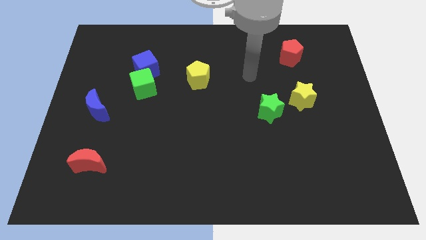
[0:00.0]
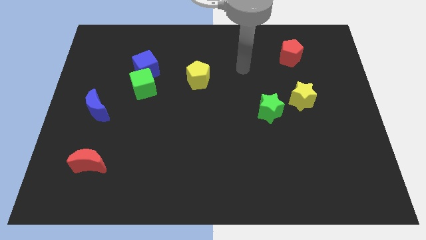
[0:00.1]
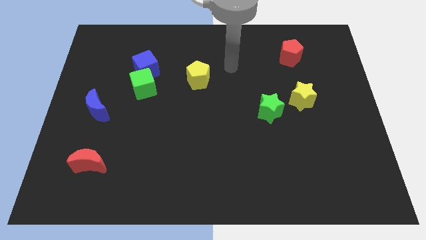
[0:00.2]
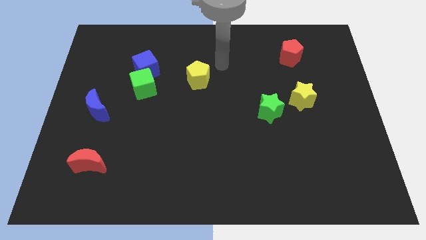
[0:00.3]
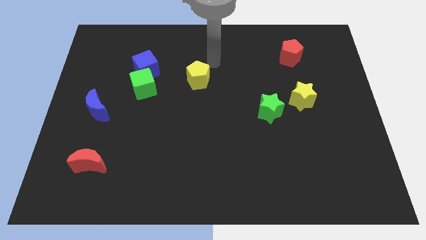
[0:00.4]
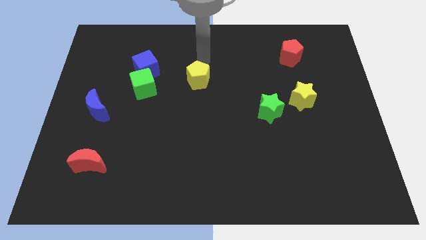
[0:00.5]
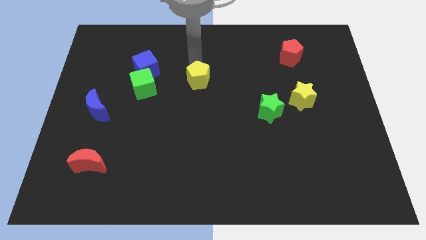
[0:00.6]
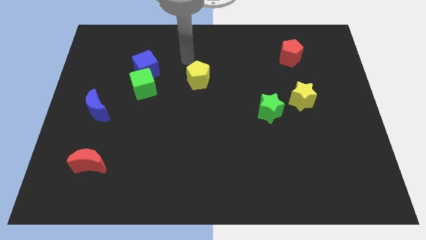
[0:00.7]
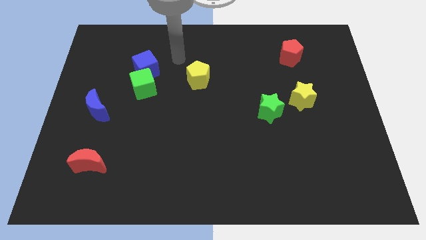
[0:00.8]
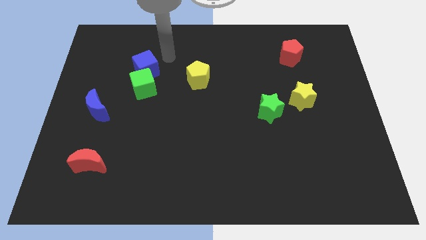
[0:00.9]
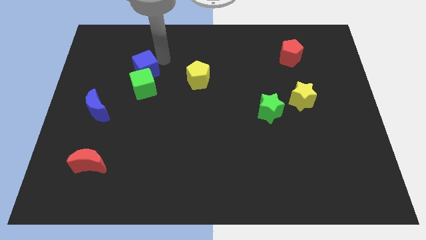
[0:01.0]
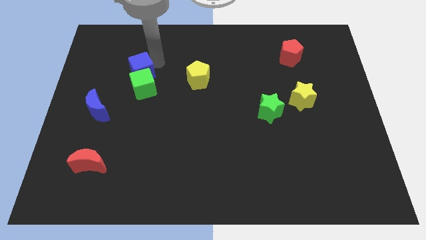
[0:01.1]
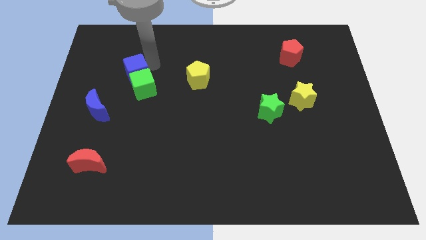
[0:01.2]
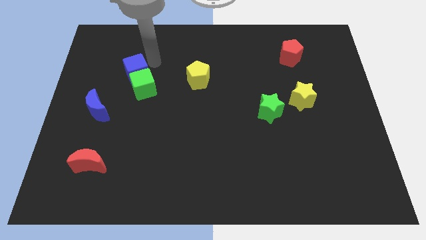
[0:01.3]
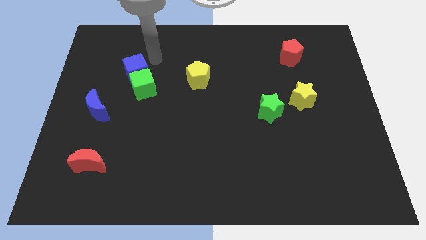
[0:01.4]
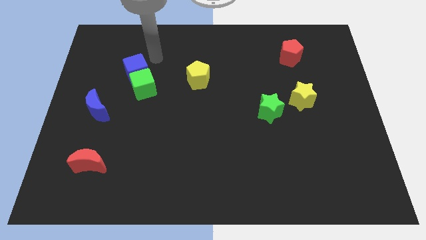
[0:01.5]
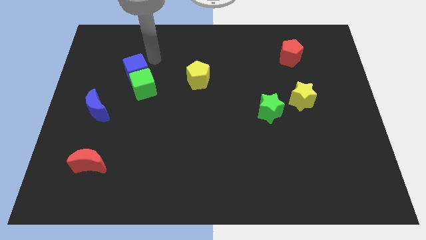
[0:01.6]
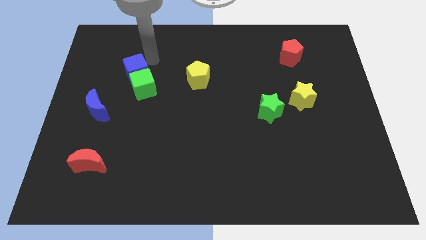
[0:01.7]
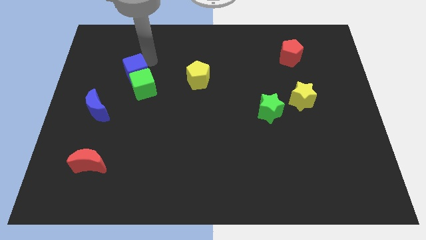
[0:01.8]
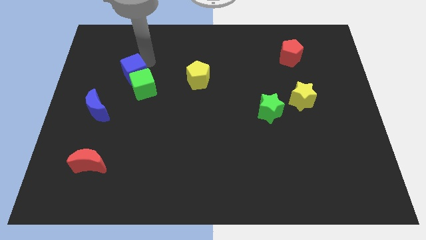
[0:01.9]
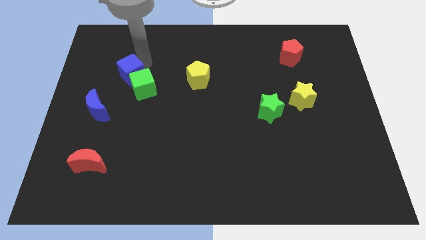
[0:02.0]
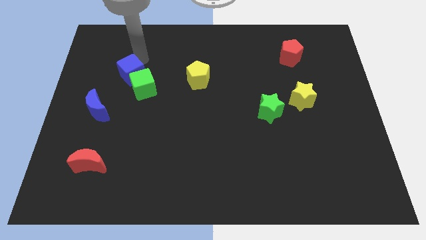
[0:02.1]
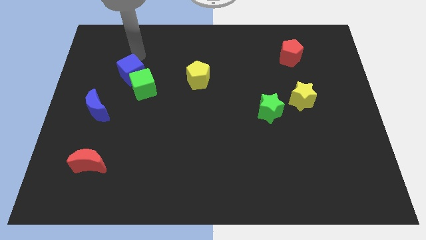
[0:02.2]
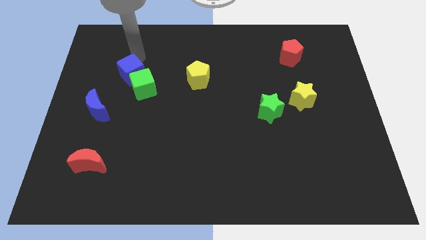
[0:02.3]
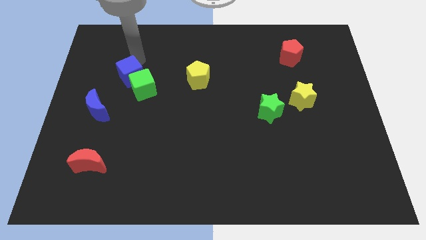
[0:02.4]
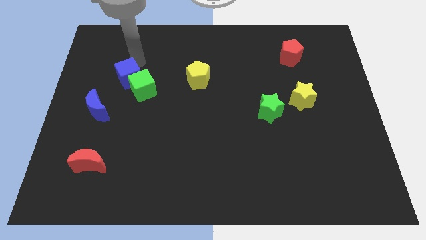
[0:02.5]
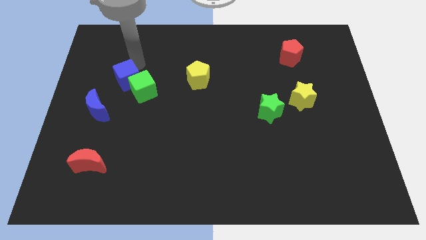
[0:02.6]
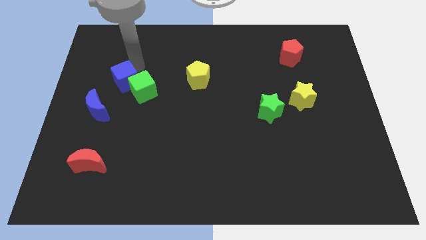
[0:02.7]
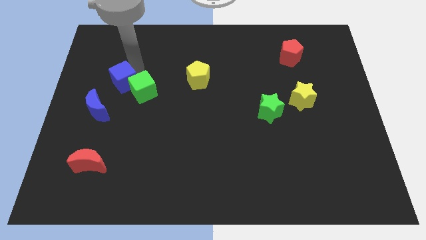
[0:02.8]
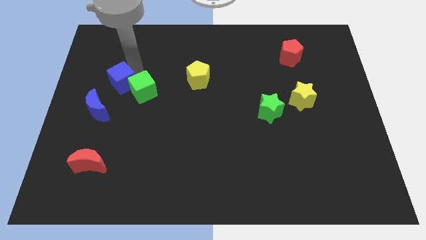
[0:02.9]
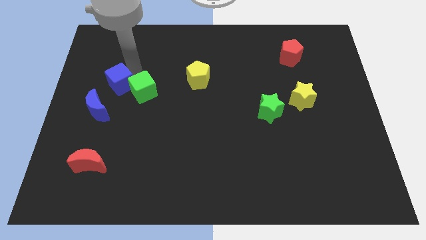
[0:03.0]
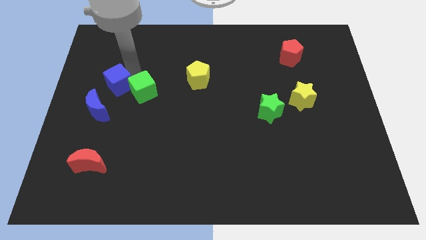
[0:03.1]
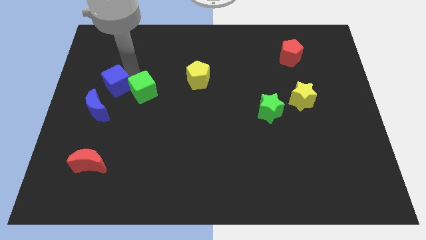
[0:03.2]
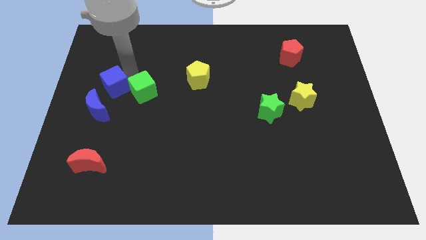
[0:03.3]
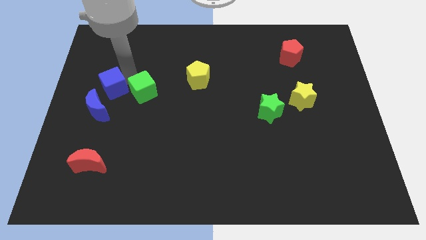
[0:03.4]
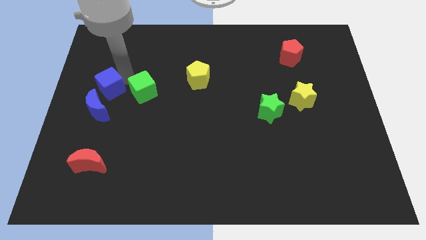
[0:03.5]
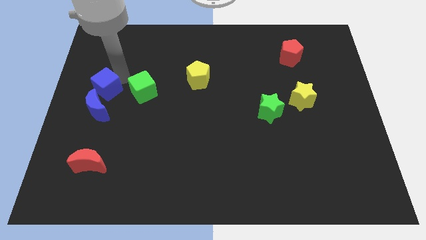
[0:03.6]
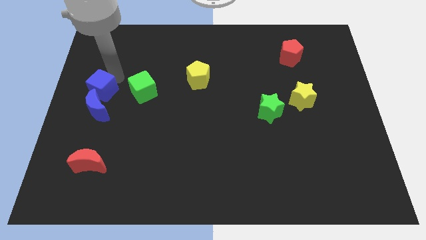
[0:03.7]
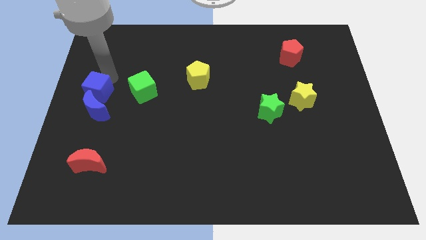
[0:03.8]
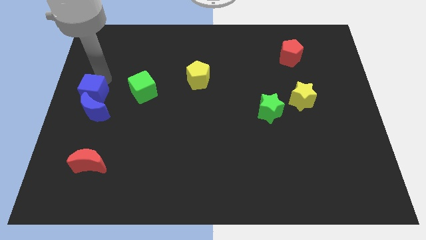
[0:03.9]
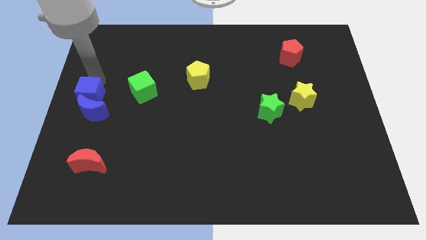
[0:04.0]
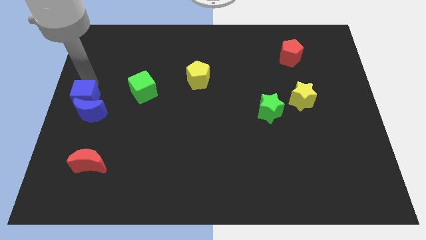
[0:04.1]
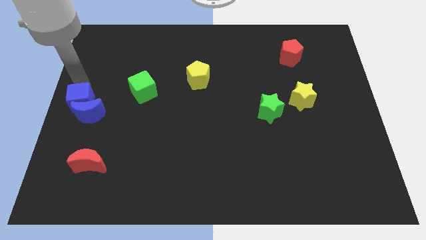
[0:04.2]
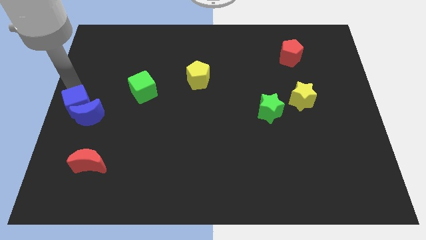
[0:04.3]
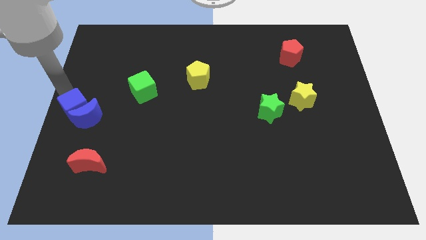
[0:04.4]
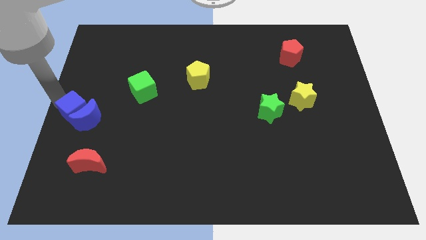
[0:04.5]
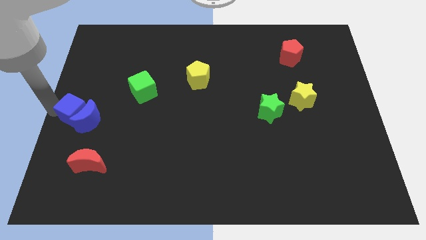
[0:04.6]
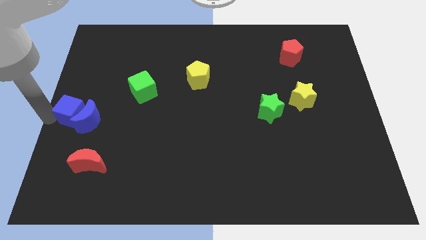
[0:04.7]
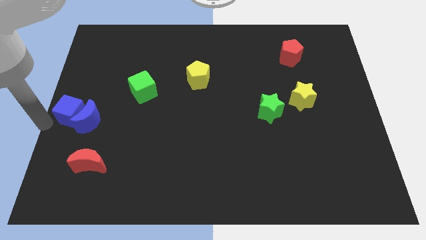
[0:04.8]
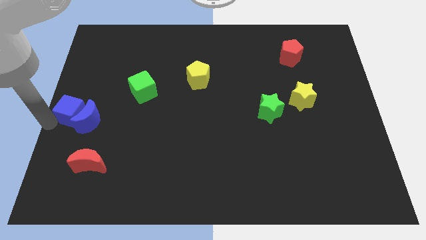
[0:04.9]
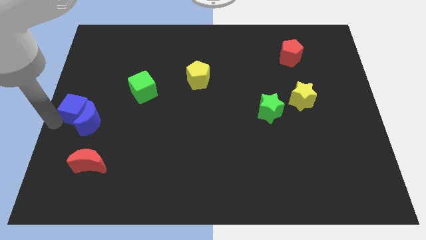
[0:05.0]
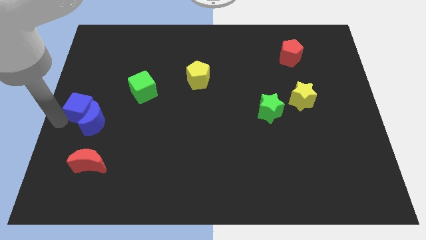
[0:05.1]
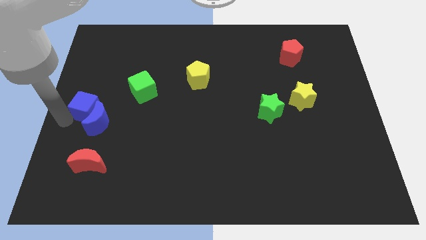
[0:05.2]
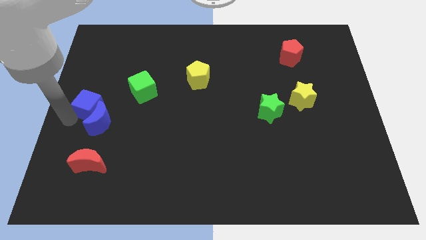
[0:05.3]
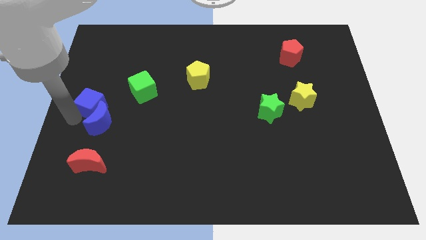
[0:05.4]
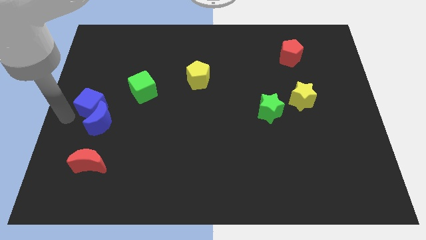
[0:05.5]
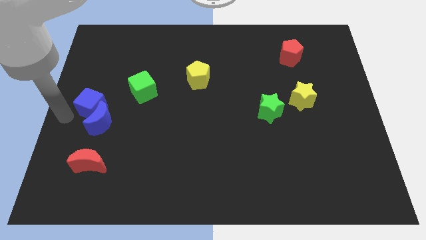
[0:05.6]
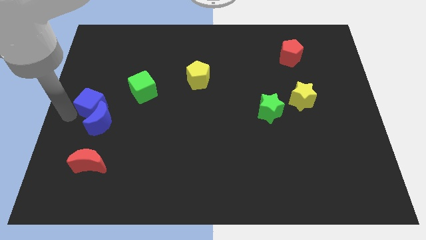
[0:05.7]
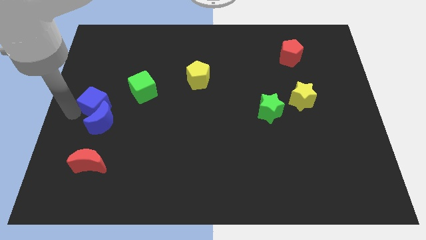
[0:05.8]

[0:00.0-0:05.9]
push the blue cube downwards a bit

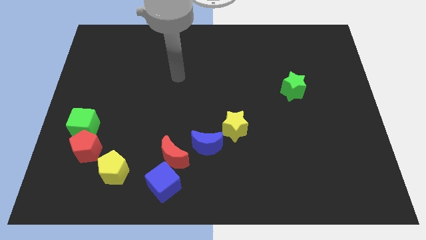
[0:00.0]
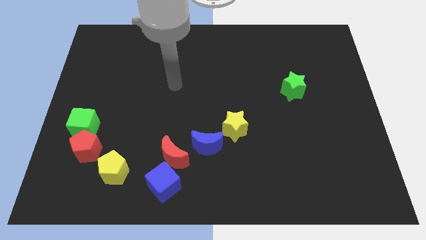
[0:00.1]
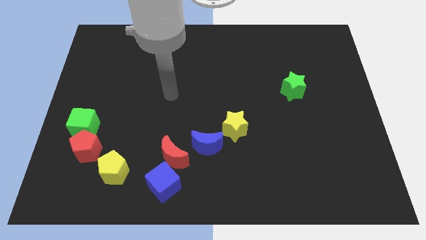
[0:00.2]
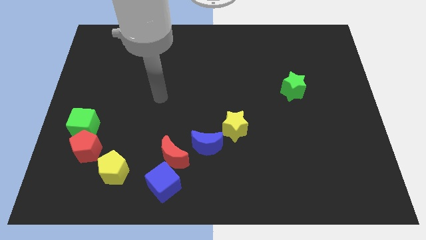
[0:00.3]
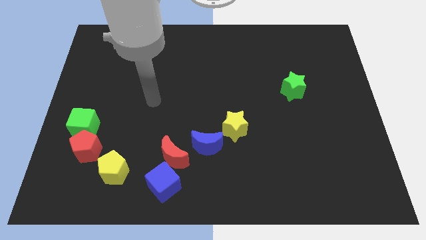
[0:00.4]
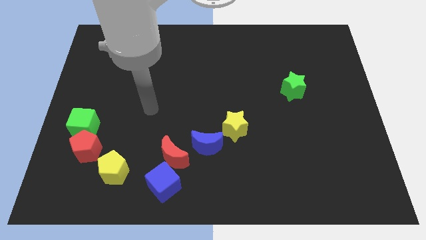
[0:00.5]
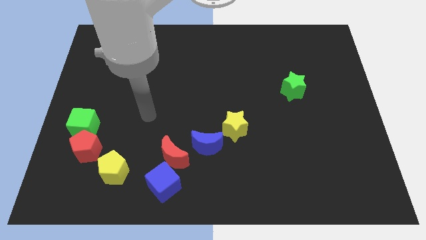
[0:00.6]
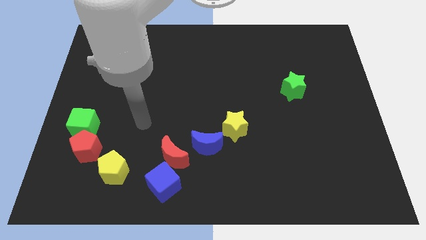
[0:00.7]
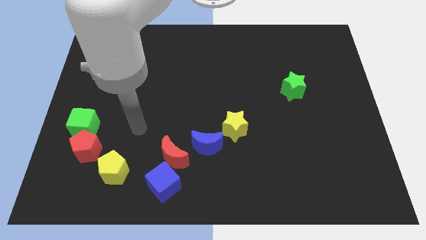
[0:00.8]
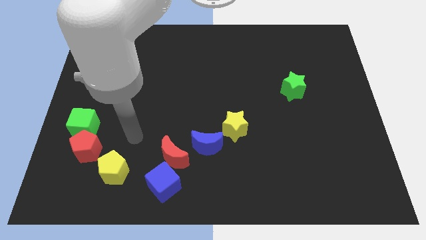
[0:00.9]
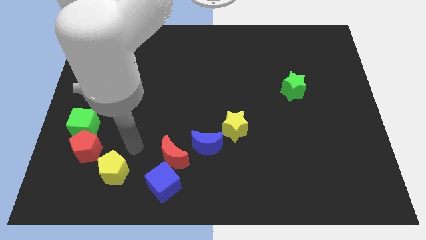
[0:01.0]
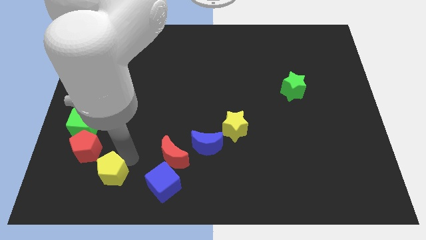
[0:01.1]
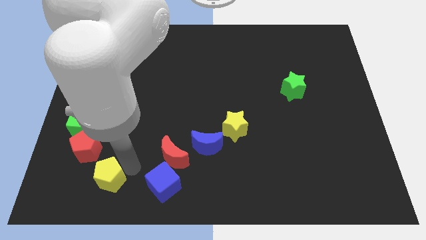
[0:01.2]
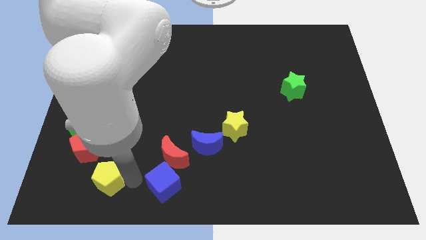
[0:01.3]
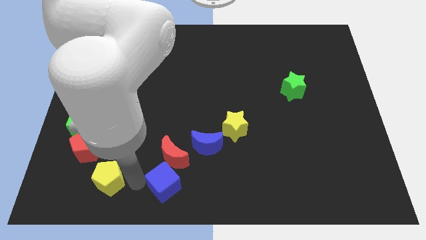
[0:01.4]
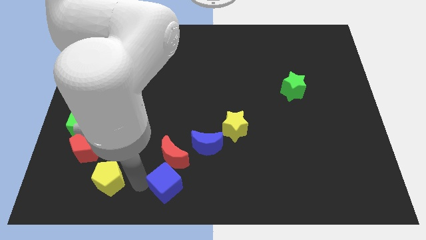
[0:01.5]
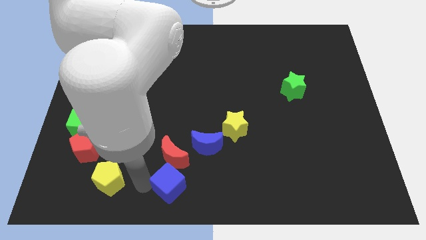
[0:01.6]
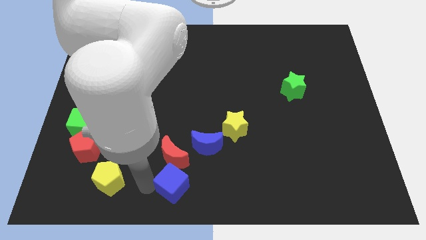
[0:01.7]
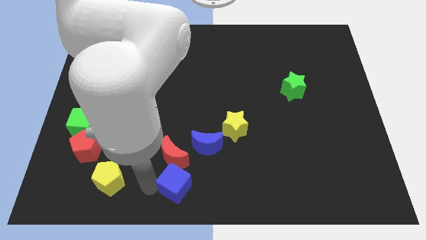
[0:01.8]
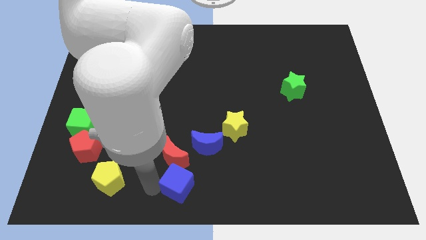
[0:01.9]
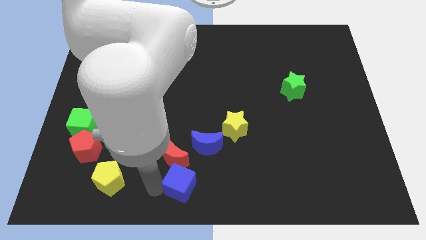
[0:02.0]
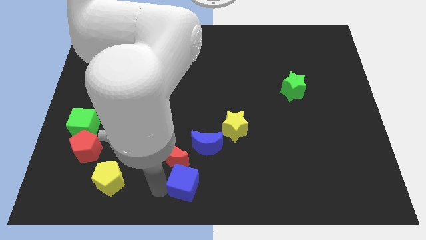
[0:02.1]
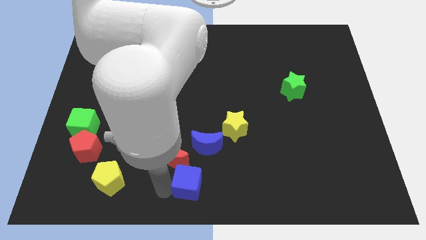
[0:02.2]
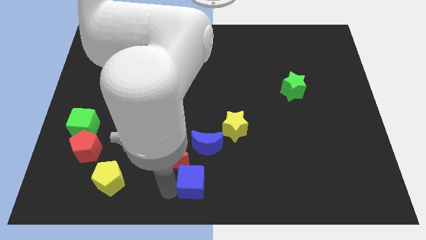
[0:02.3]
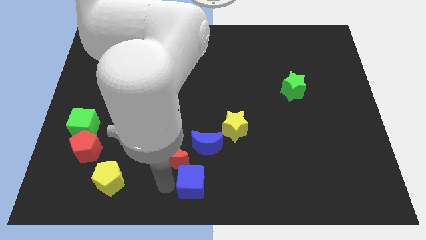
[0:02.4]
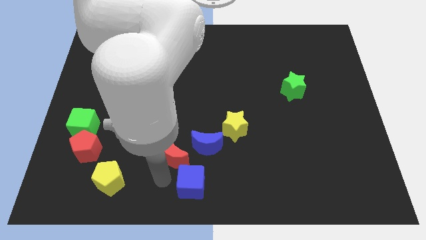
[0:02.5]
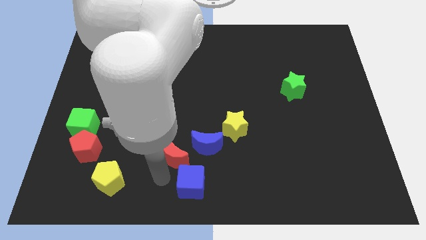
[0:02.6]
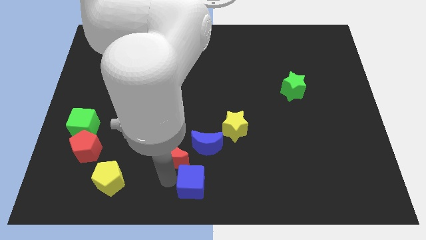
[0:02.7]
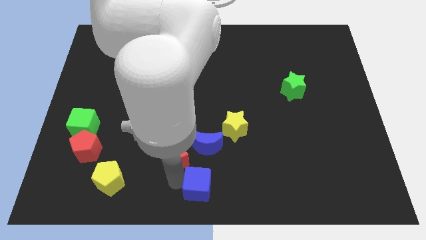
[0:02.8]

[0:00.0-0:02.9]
move the blue cube to the right a bit
